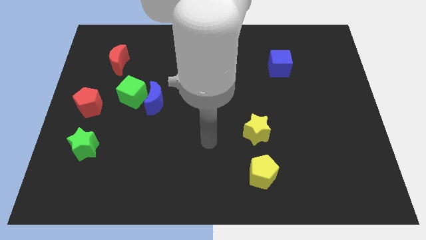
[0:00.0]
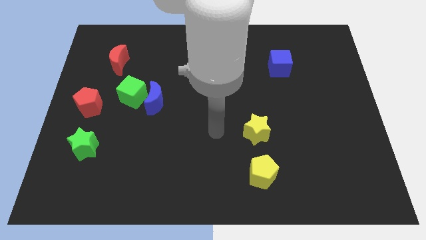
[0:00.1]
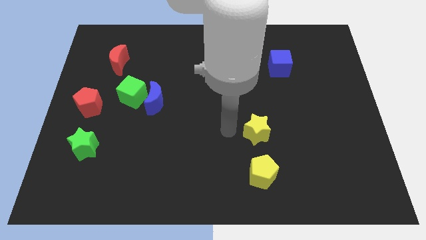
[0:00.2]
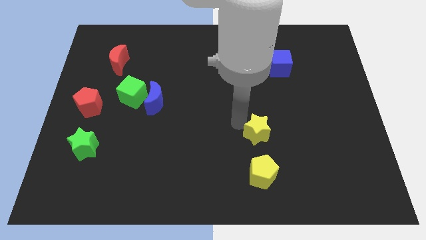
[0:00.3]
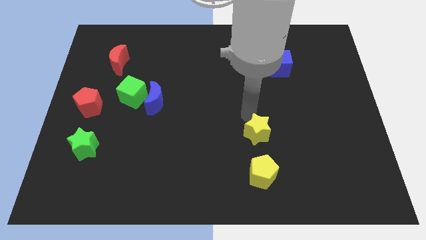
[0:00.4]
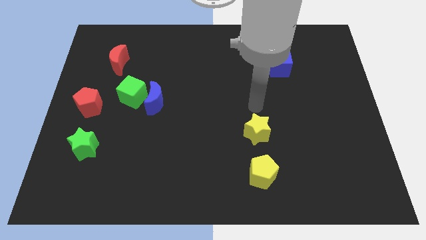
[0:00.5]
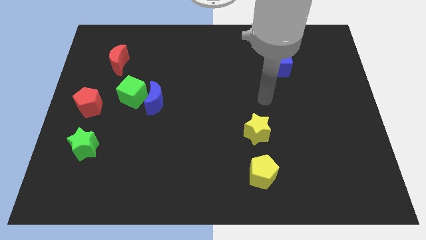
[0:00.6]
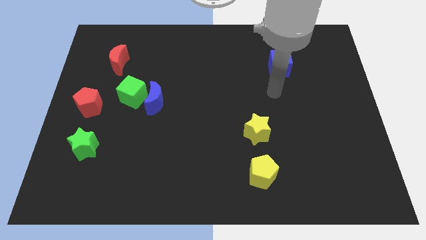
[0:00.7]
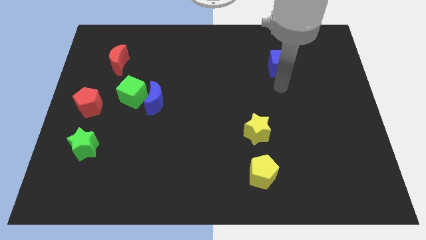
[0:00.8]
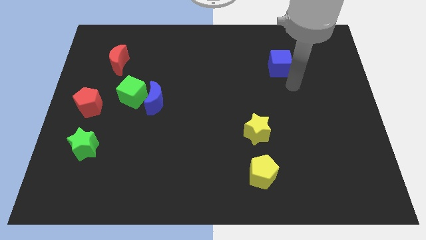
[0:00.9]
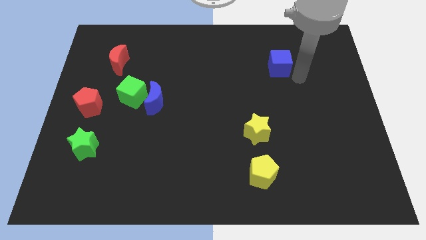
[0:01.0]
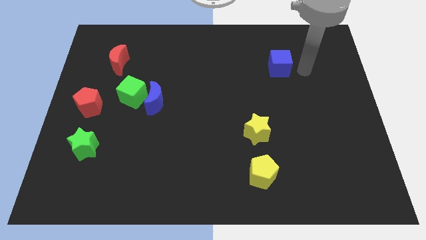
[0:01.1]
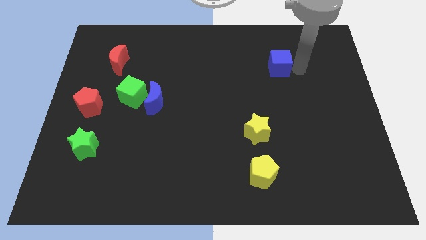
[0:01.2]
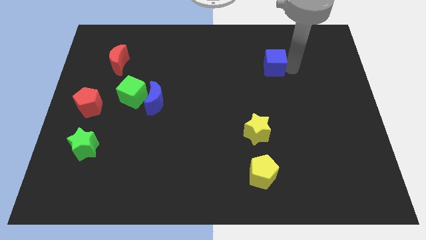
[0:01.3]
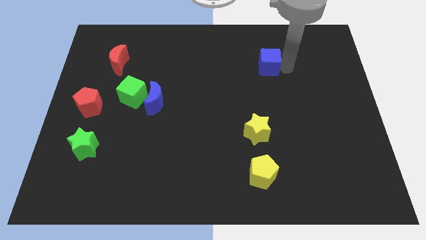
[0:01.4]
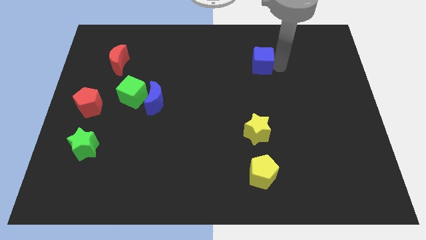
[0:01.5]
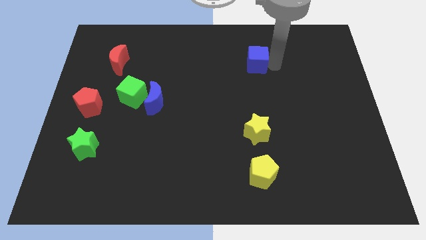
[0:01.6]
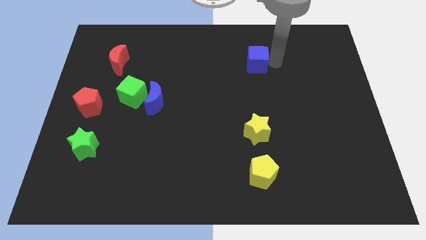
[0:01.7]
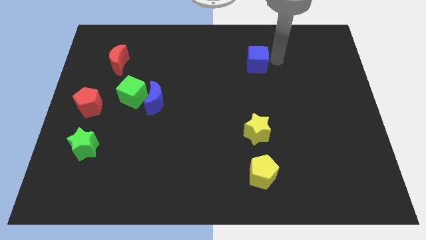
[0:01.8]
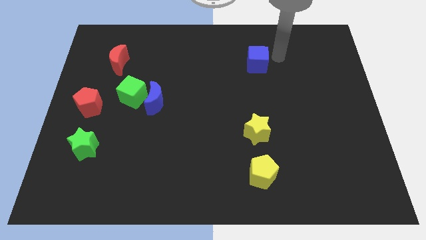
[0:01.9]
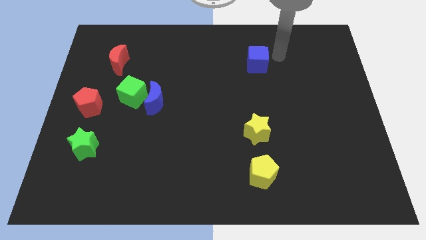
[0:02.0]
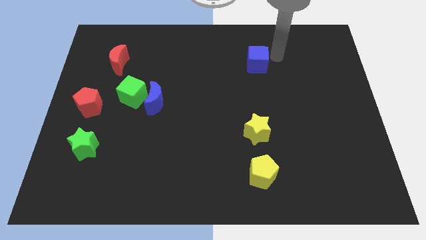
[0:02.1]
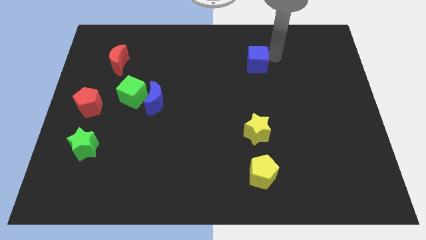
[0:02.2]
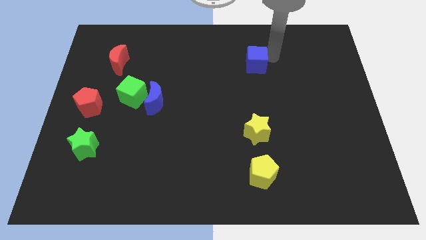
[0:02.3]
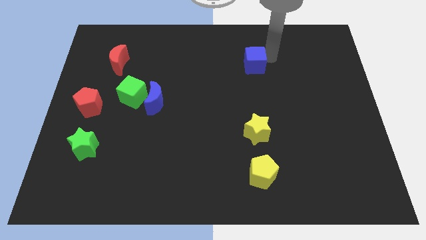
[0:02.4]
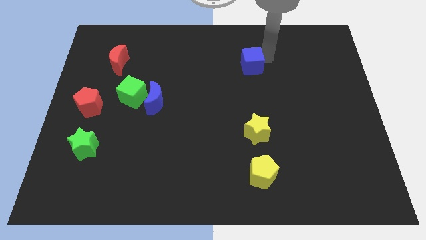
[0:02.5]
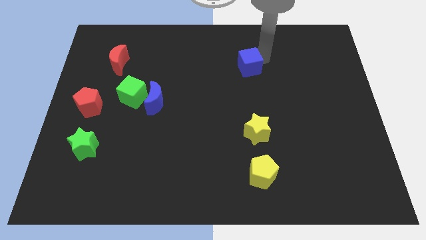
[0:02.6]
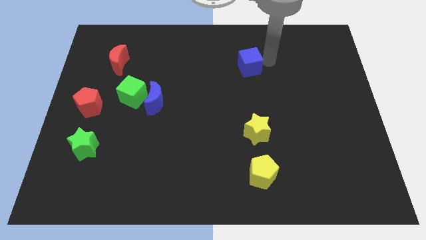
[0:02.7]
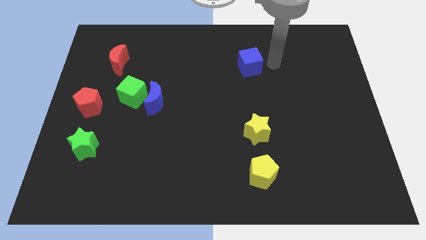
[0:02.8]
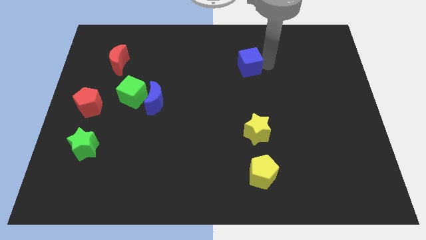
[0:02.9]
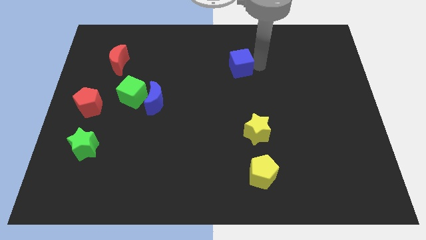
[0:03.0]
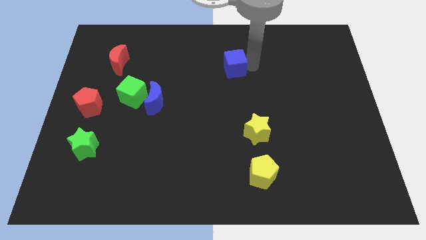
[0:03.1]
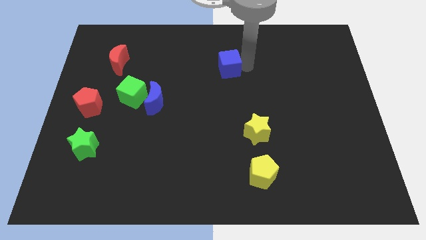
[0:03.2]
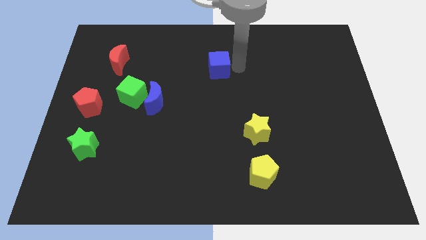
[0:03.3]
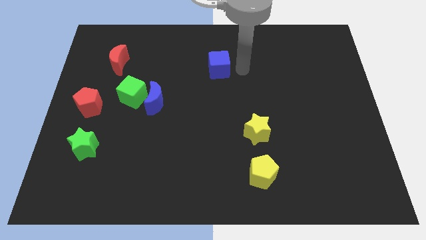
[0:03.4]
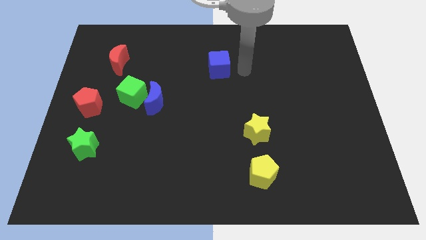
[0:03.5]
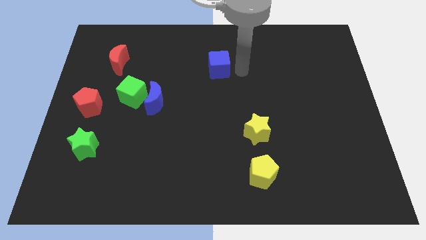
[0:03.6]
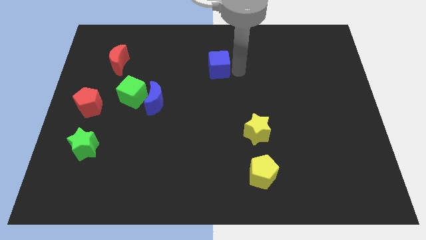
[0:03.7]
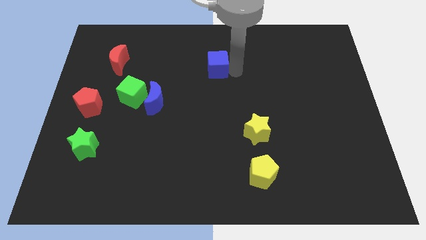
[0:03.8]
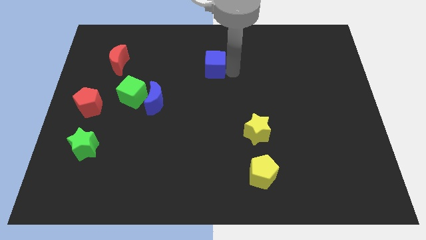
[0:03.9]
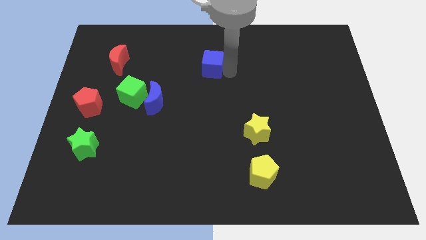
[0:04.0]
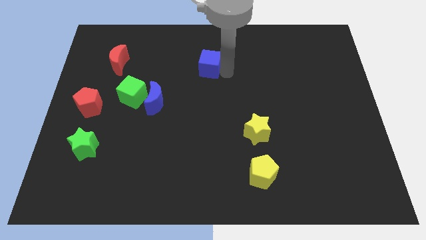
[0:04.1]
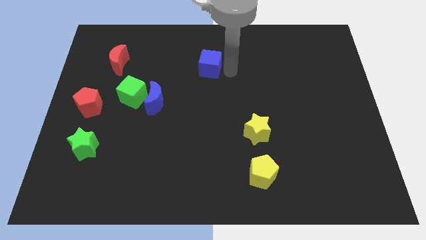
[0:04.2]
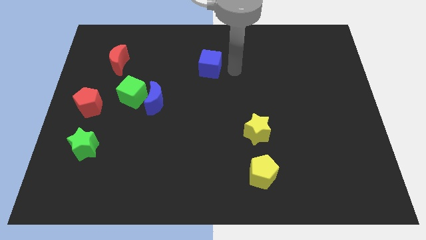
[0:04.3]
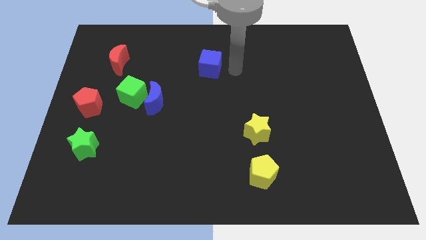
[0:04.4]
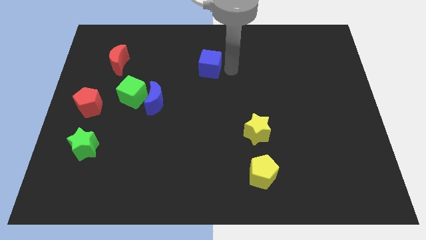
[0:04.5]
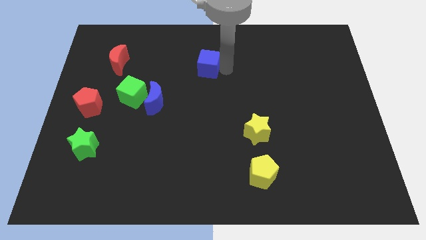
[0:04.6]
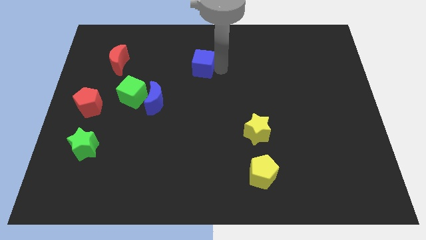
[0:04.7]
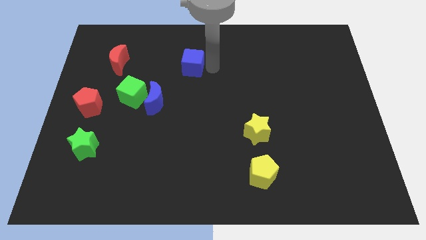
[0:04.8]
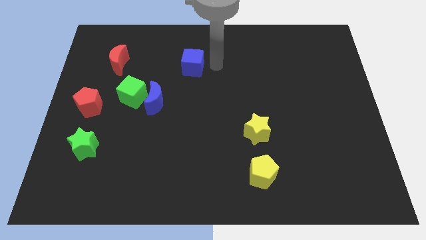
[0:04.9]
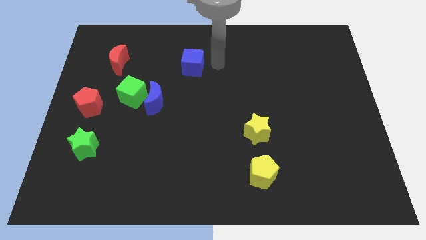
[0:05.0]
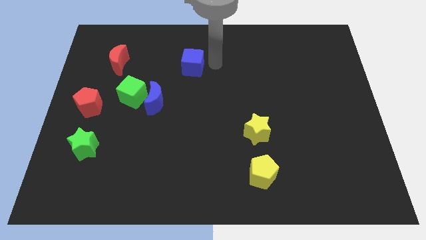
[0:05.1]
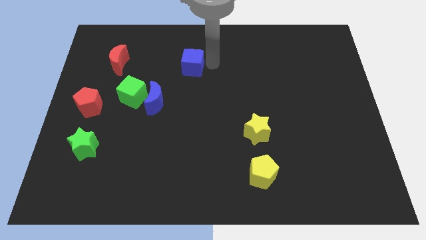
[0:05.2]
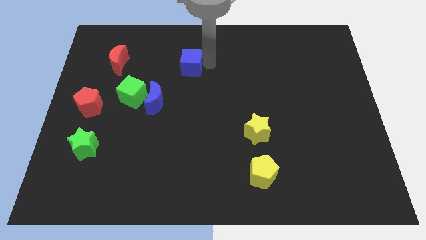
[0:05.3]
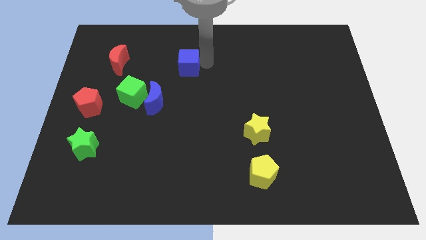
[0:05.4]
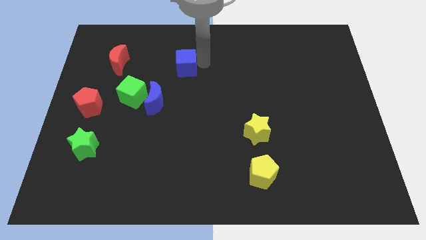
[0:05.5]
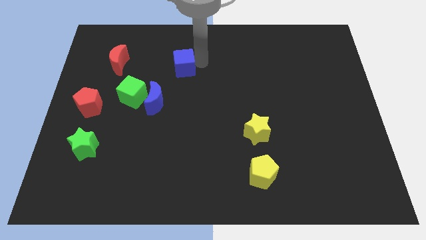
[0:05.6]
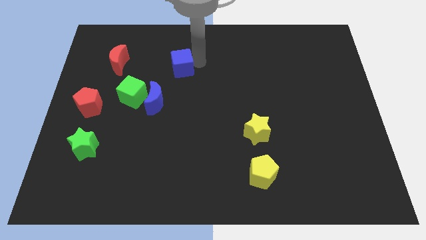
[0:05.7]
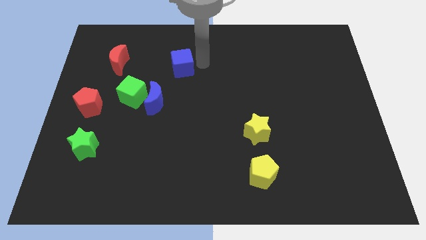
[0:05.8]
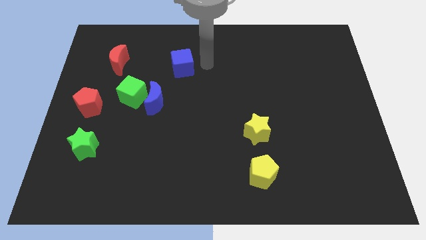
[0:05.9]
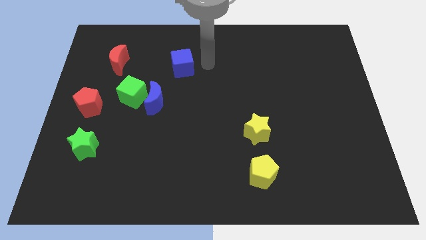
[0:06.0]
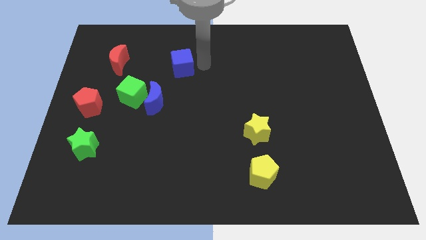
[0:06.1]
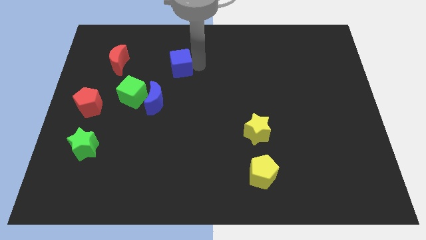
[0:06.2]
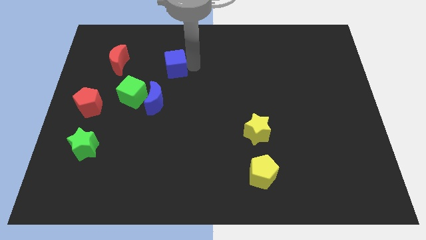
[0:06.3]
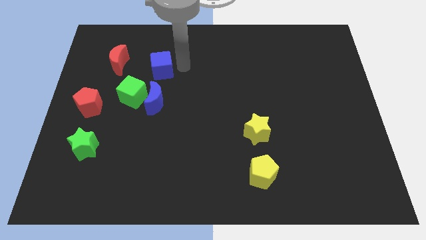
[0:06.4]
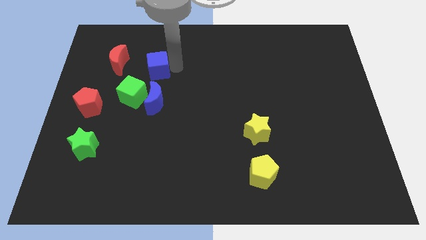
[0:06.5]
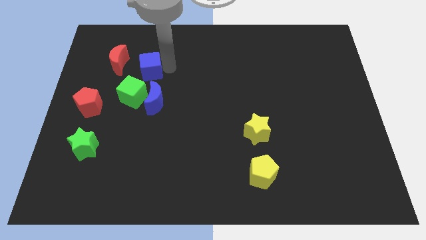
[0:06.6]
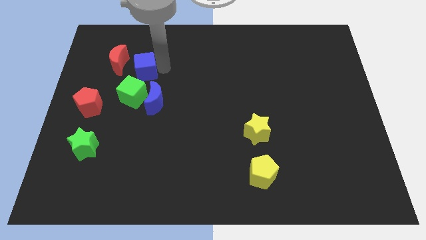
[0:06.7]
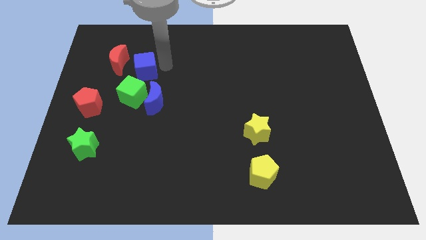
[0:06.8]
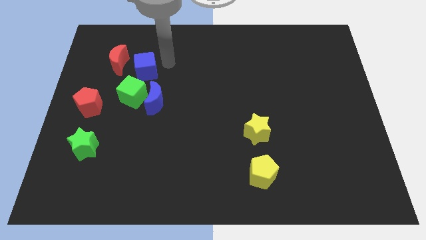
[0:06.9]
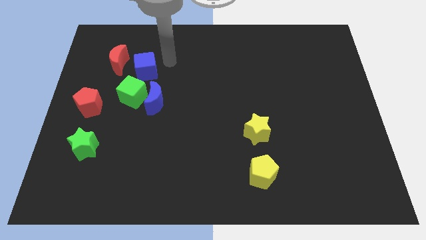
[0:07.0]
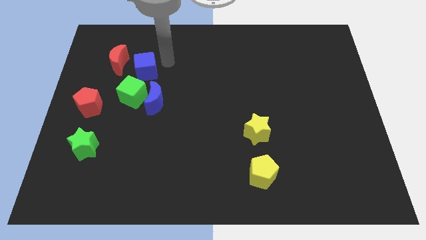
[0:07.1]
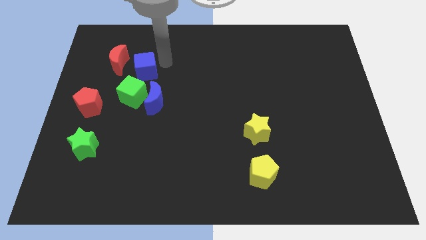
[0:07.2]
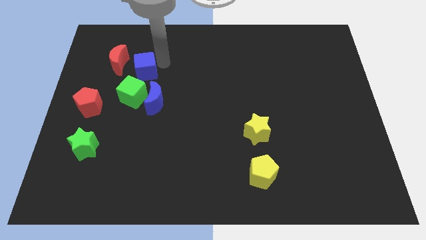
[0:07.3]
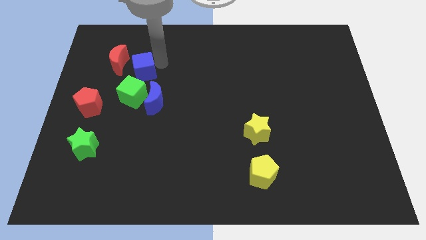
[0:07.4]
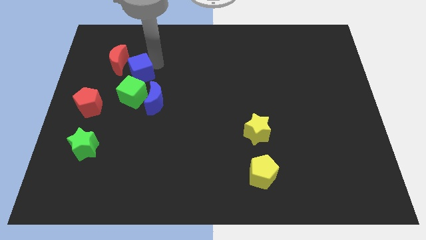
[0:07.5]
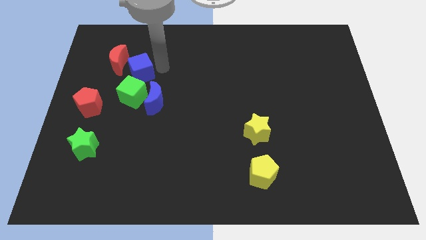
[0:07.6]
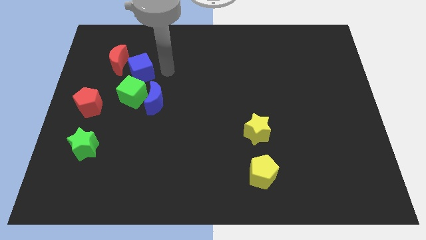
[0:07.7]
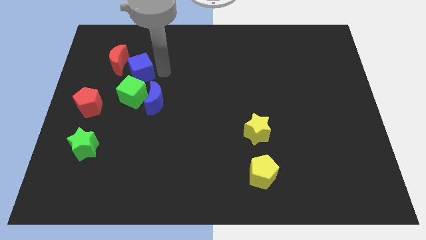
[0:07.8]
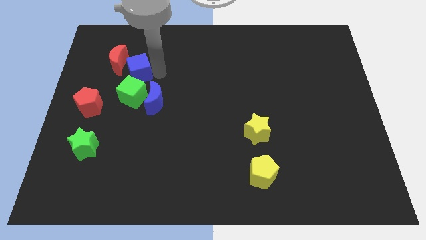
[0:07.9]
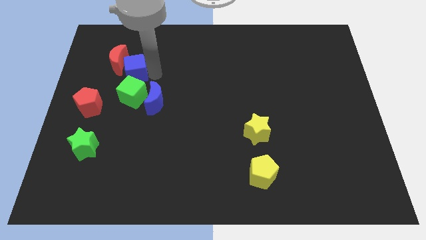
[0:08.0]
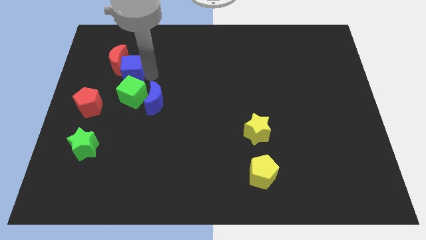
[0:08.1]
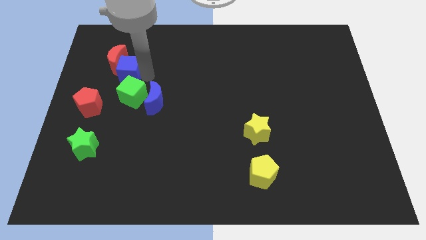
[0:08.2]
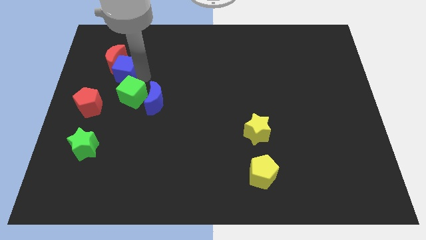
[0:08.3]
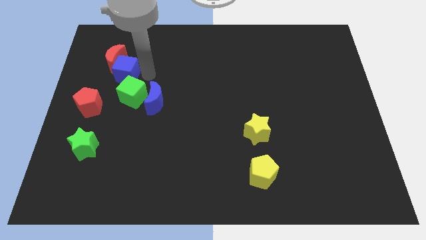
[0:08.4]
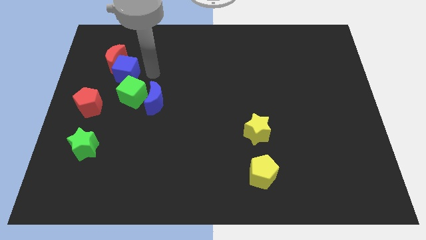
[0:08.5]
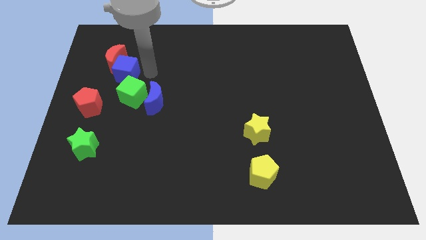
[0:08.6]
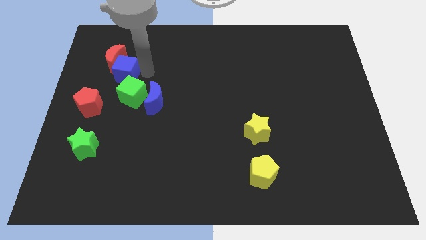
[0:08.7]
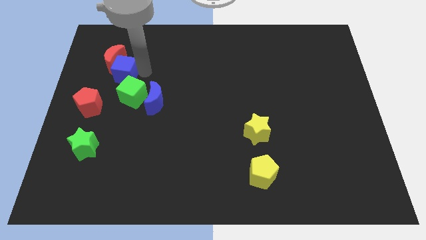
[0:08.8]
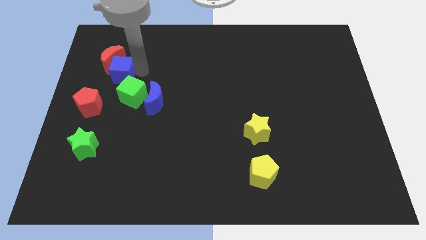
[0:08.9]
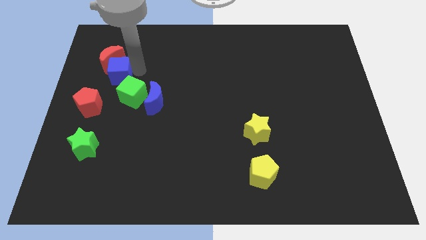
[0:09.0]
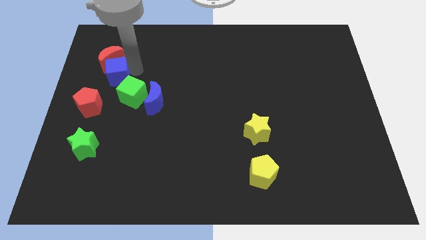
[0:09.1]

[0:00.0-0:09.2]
push the blue cube to the top side of the red pentagon
